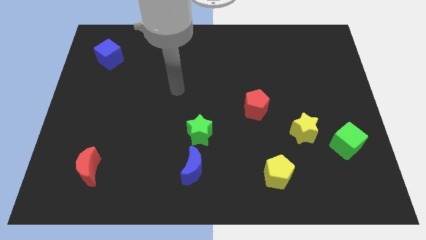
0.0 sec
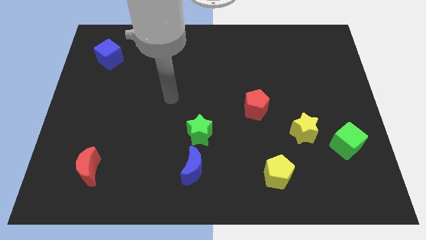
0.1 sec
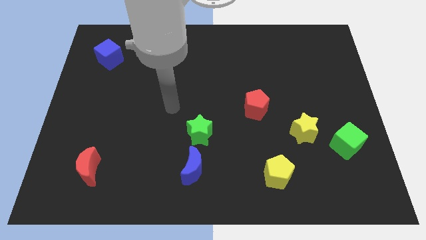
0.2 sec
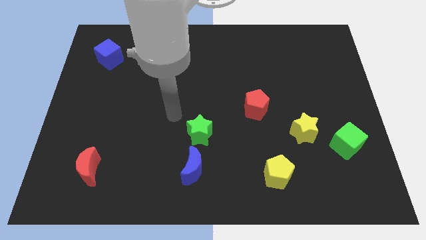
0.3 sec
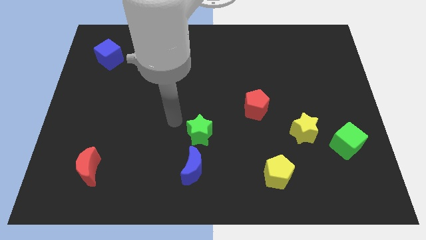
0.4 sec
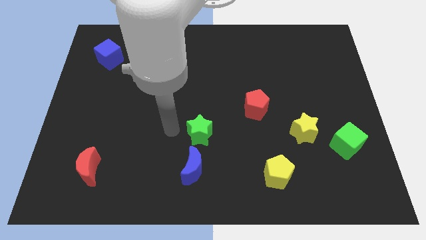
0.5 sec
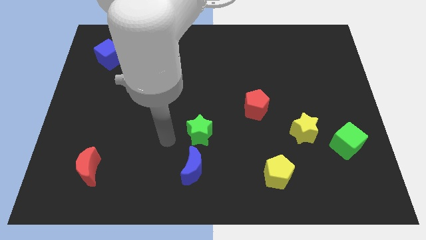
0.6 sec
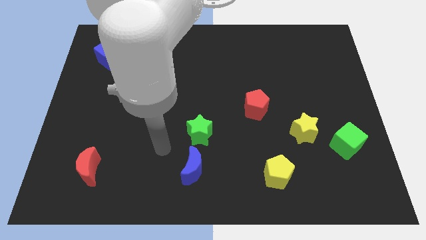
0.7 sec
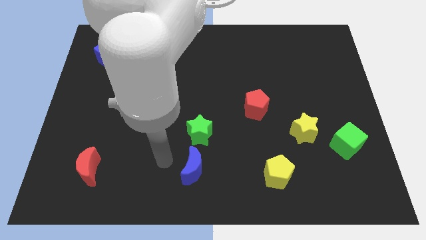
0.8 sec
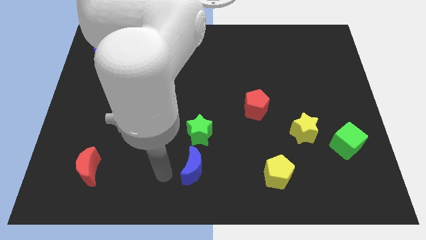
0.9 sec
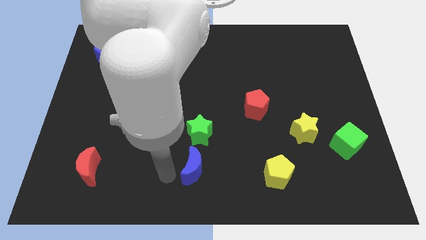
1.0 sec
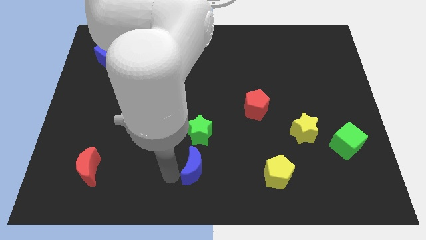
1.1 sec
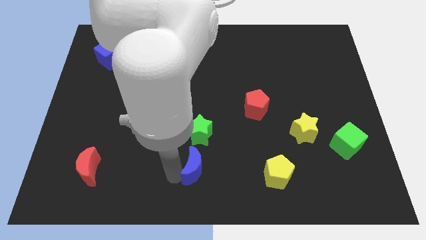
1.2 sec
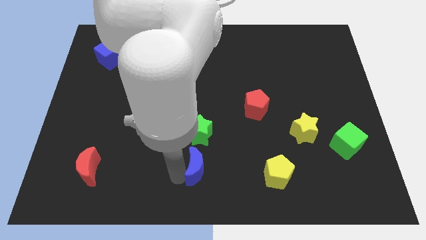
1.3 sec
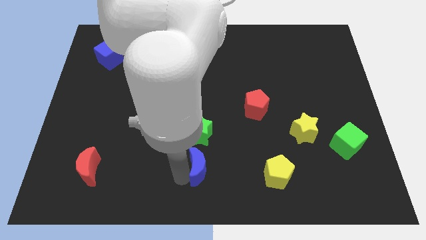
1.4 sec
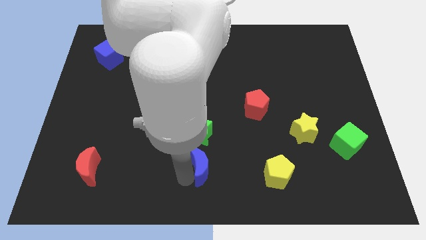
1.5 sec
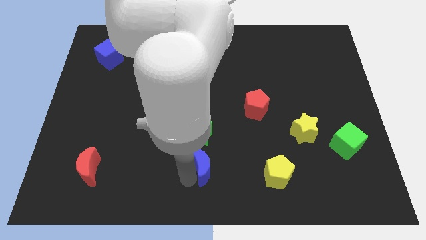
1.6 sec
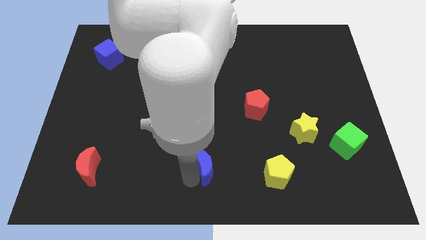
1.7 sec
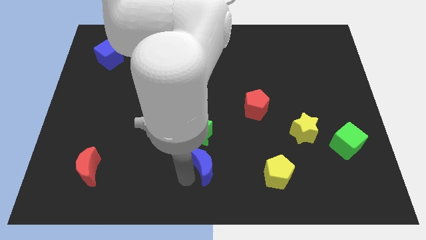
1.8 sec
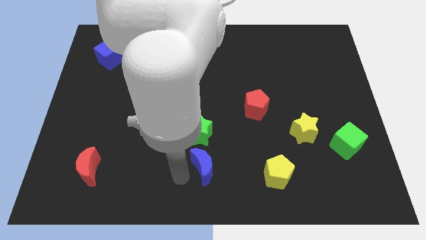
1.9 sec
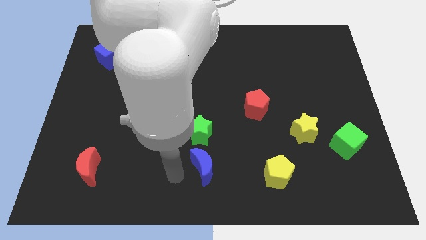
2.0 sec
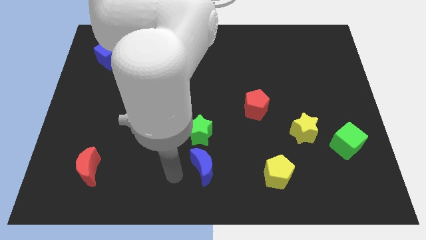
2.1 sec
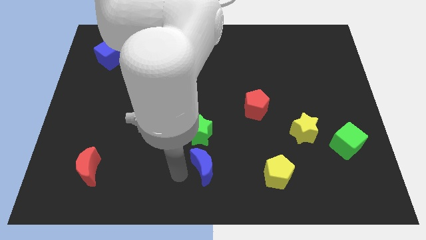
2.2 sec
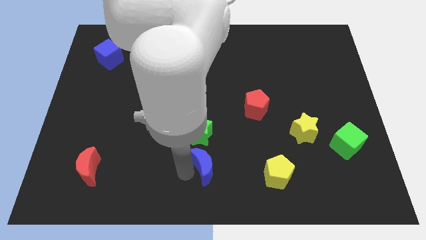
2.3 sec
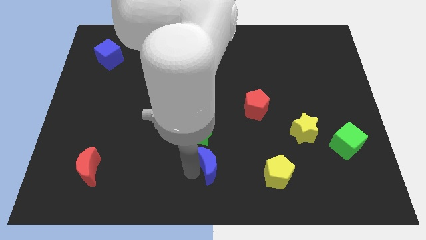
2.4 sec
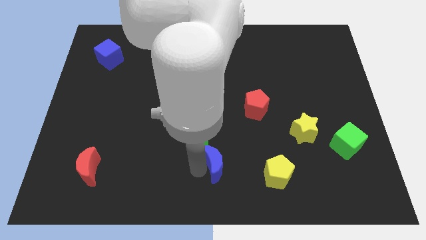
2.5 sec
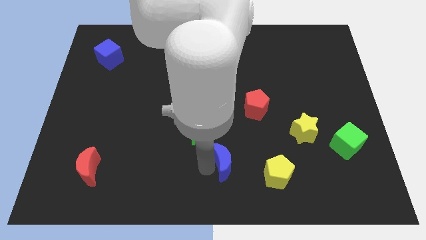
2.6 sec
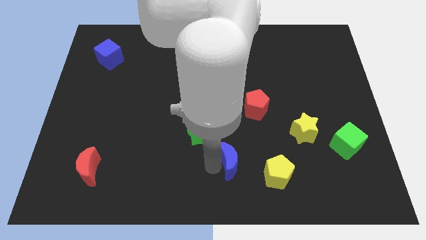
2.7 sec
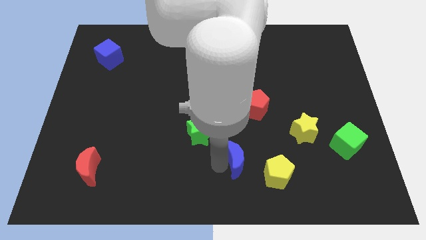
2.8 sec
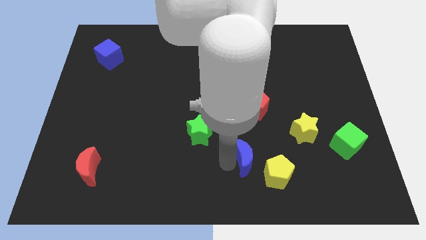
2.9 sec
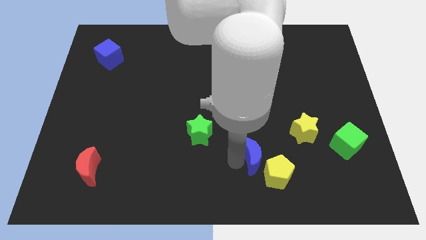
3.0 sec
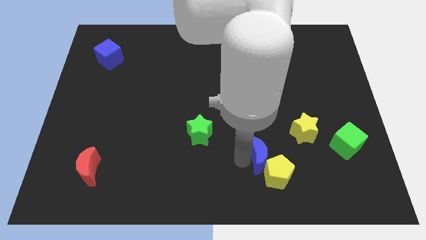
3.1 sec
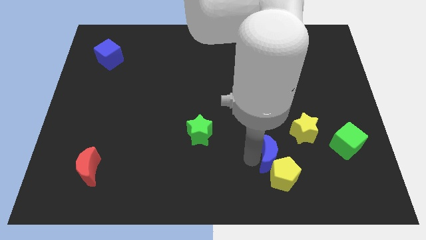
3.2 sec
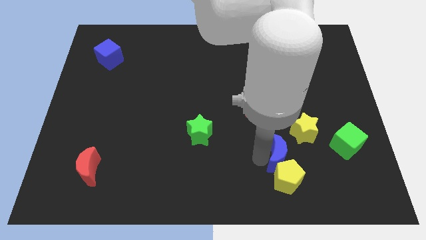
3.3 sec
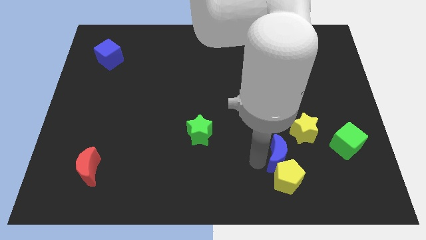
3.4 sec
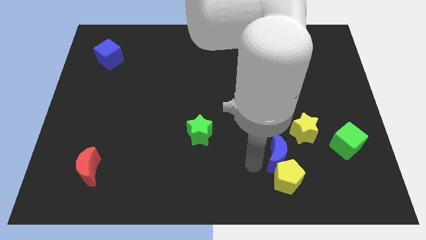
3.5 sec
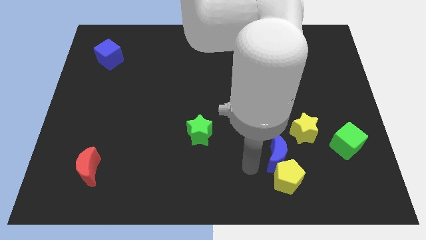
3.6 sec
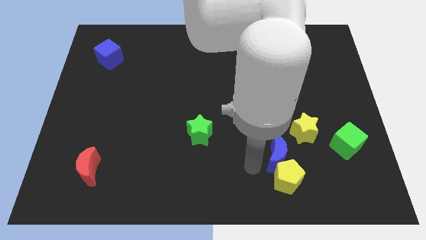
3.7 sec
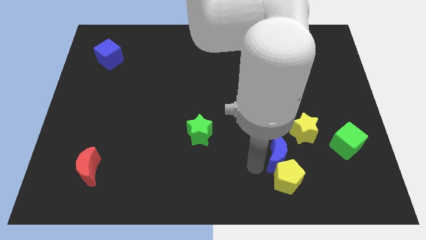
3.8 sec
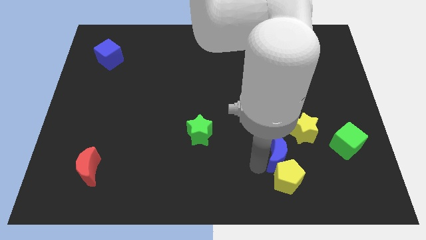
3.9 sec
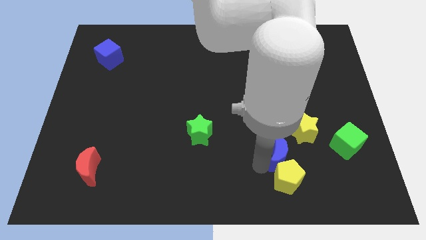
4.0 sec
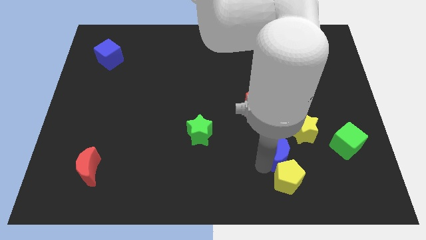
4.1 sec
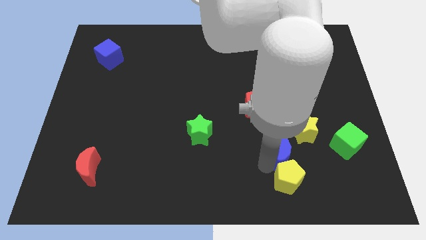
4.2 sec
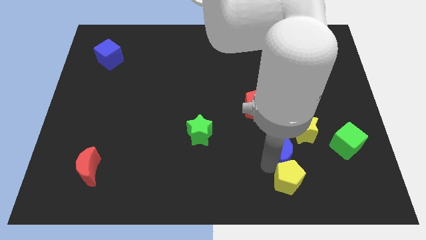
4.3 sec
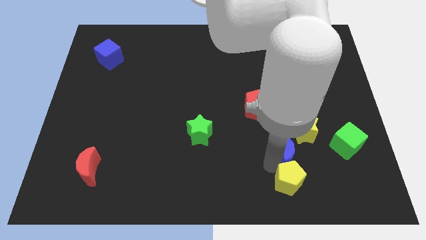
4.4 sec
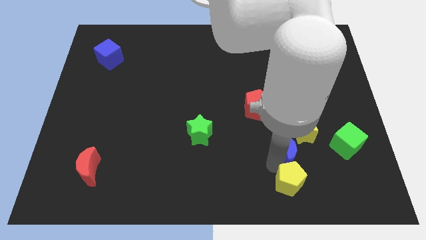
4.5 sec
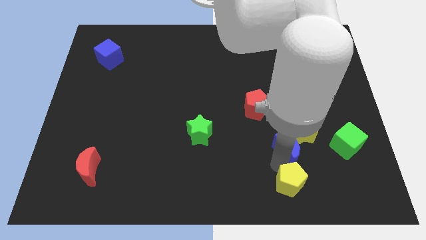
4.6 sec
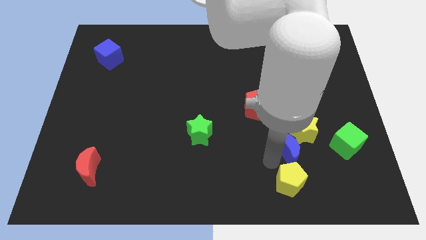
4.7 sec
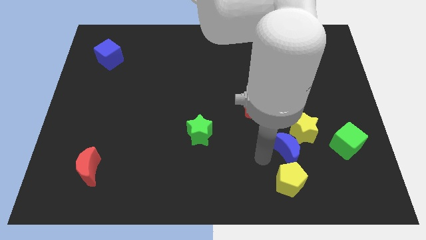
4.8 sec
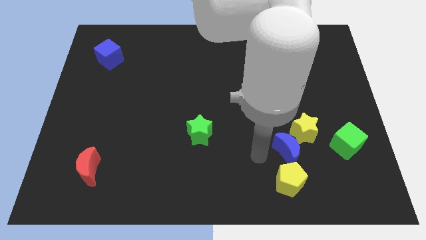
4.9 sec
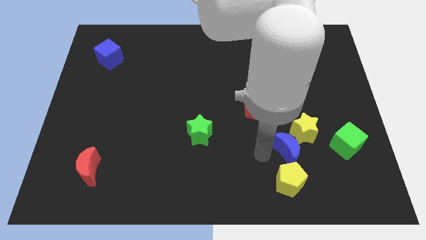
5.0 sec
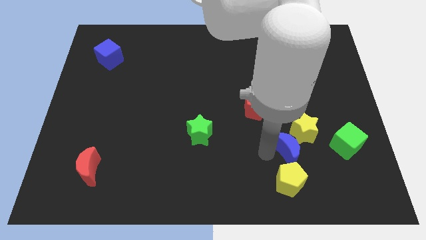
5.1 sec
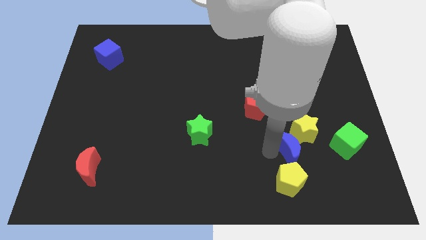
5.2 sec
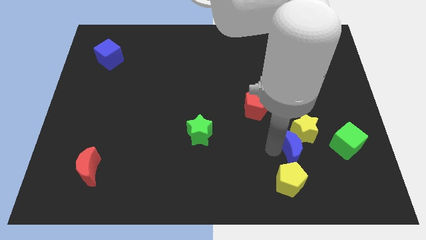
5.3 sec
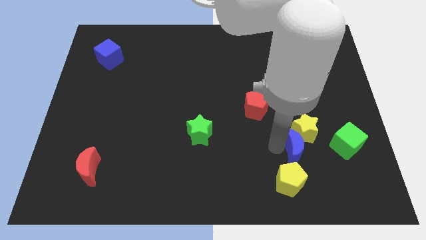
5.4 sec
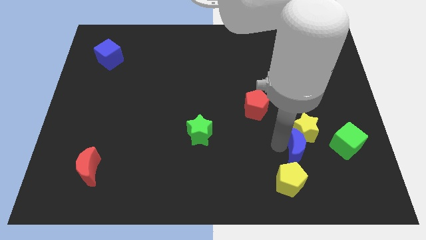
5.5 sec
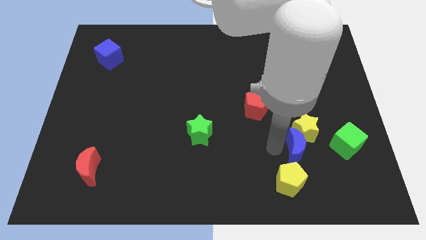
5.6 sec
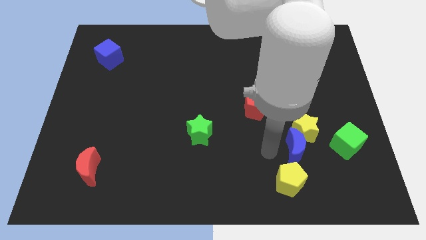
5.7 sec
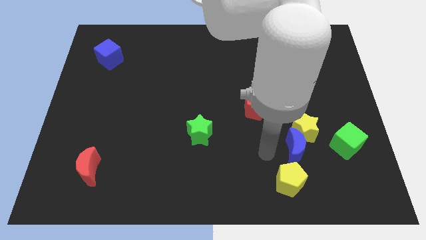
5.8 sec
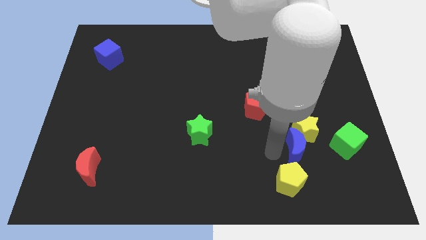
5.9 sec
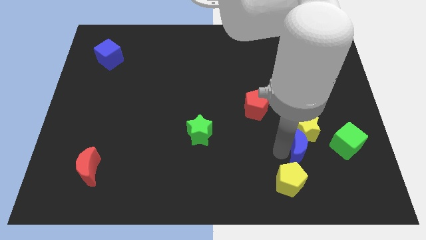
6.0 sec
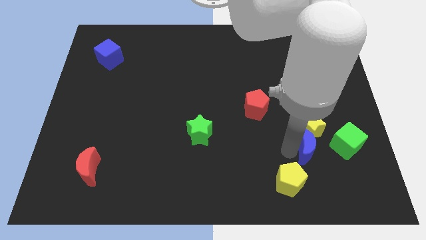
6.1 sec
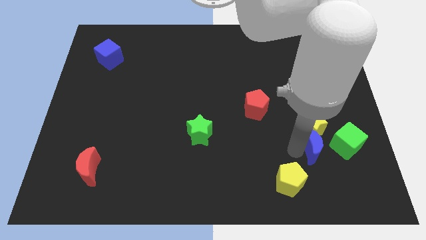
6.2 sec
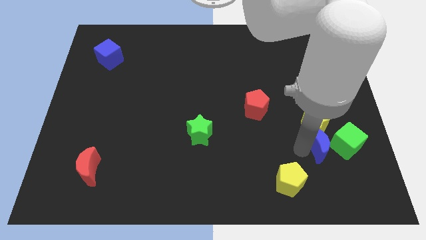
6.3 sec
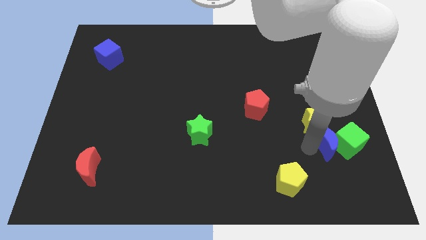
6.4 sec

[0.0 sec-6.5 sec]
push the blue moon to the green cube
